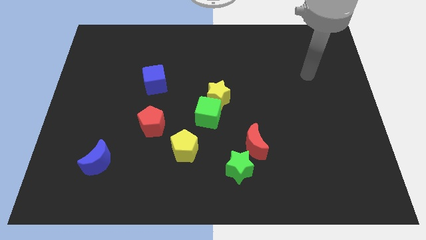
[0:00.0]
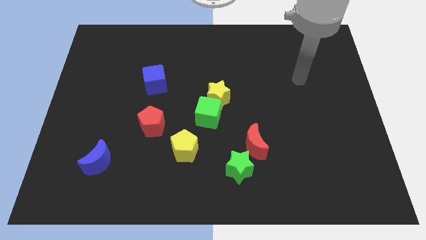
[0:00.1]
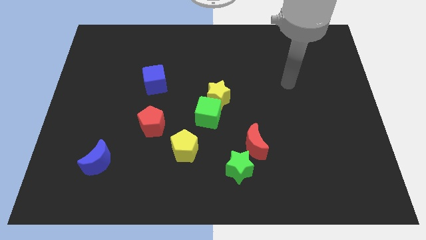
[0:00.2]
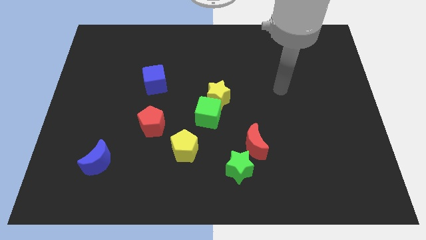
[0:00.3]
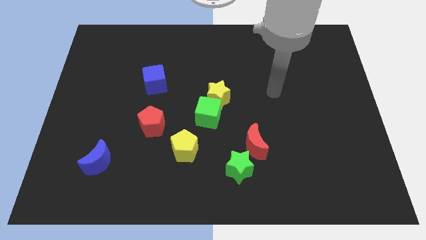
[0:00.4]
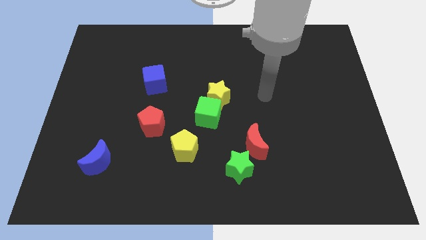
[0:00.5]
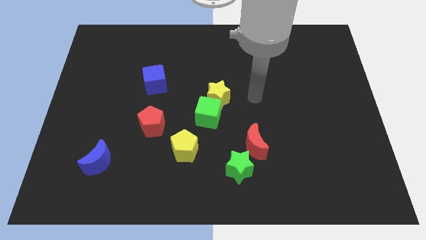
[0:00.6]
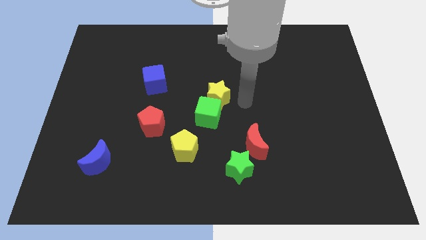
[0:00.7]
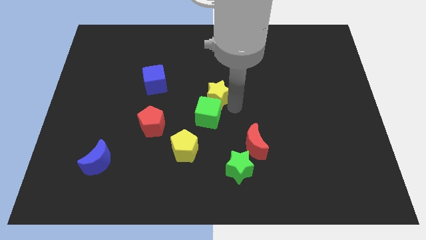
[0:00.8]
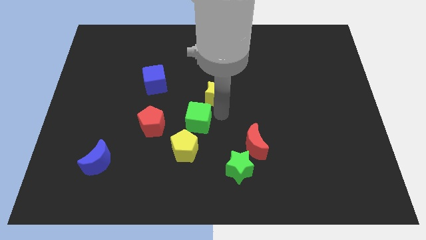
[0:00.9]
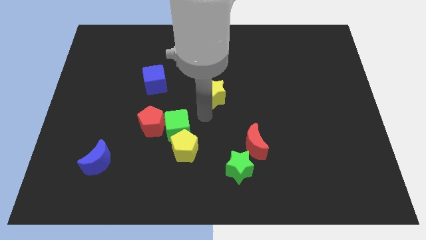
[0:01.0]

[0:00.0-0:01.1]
move the yellow star away from the green cube

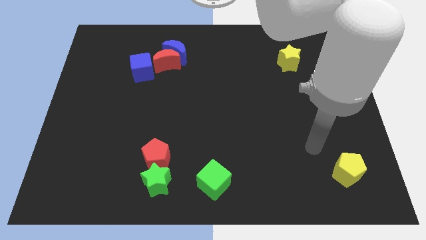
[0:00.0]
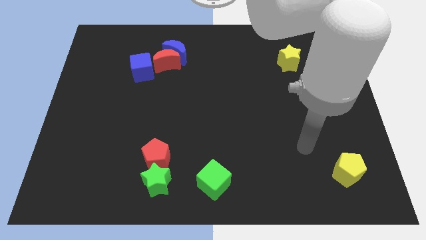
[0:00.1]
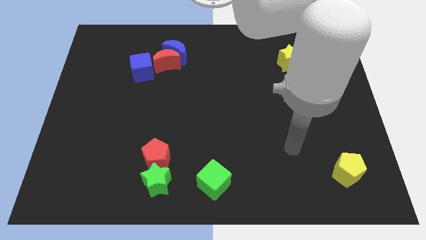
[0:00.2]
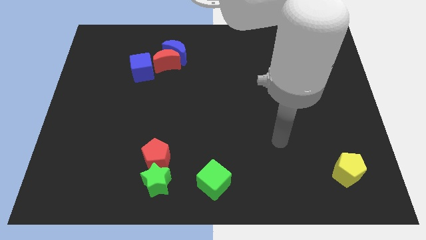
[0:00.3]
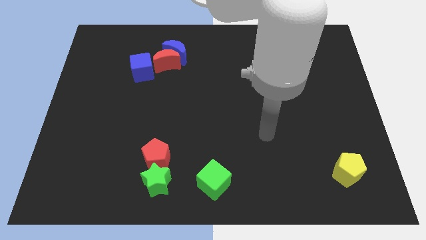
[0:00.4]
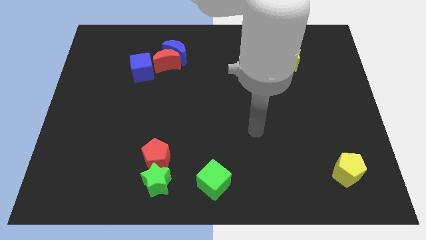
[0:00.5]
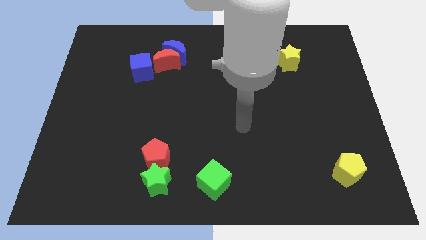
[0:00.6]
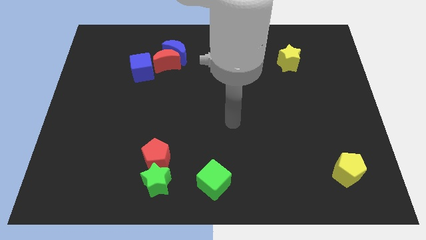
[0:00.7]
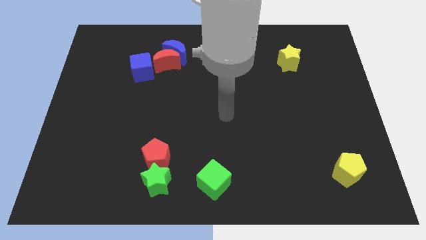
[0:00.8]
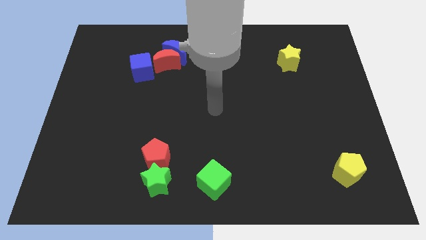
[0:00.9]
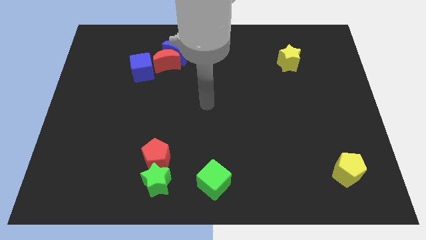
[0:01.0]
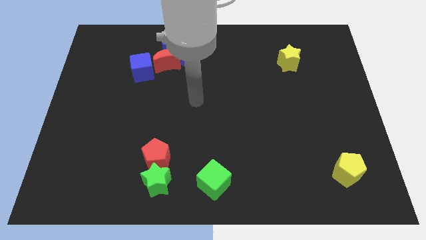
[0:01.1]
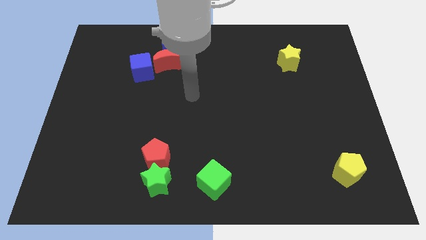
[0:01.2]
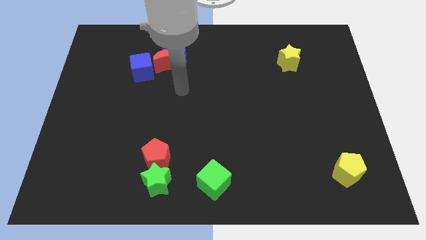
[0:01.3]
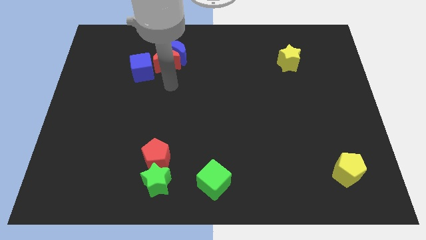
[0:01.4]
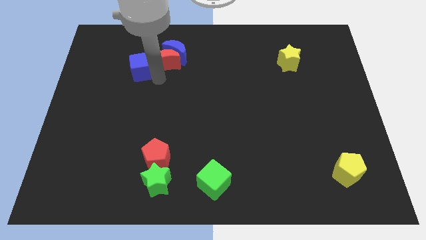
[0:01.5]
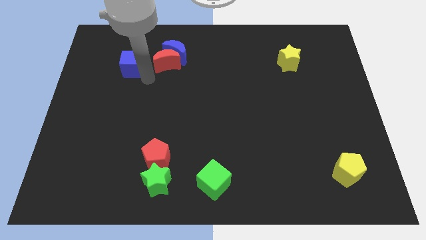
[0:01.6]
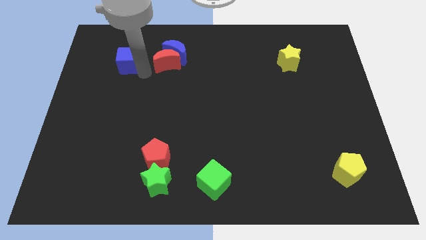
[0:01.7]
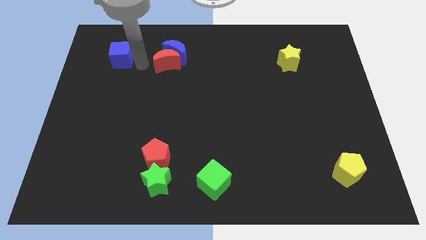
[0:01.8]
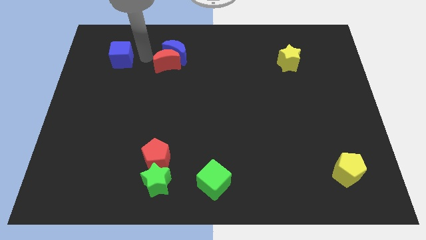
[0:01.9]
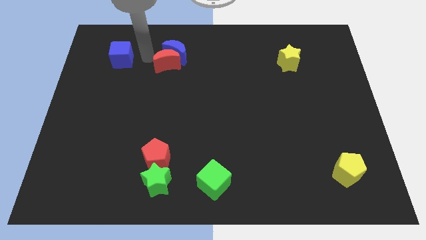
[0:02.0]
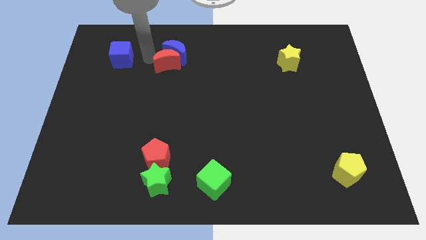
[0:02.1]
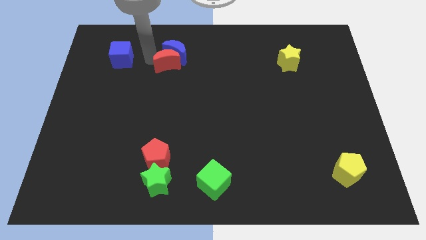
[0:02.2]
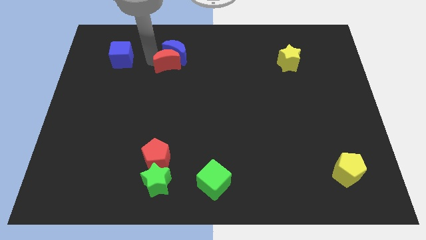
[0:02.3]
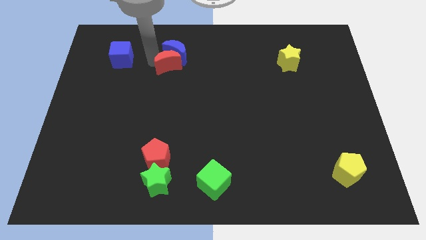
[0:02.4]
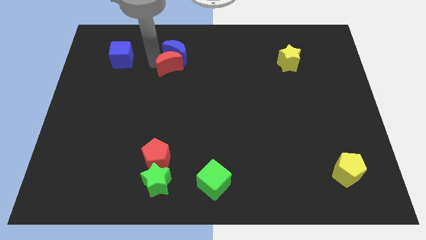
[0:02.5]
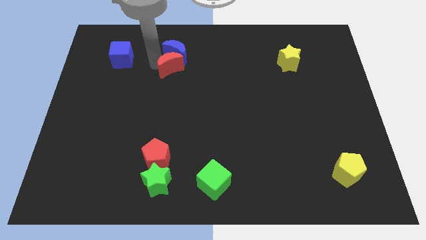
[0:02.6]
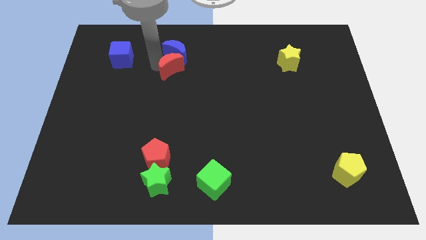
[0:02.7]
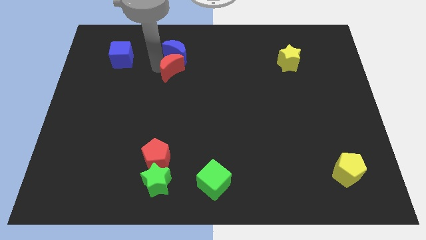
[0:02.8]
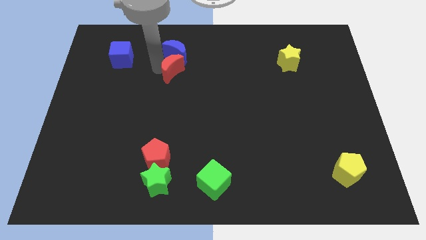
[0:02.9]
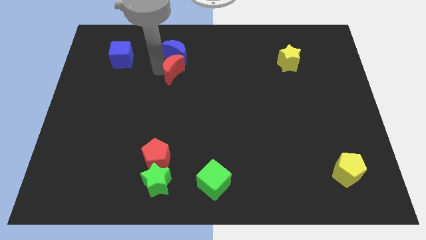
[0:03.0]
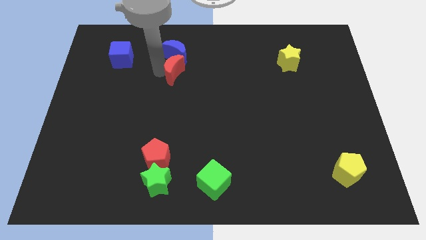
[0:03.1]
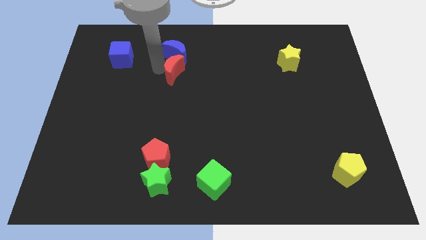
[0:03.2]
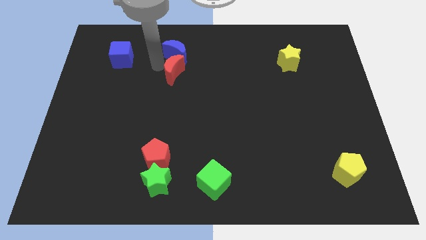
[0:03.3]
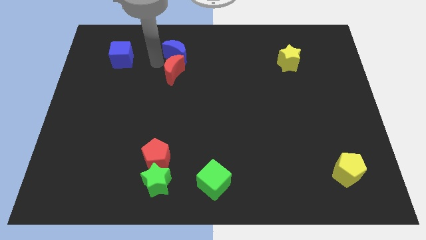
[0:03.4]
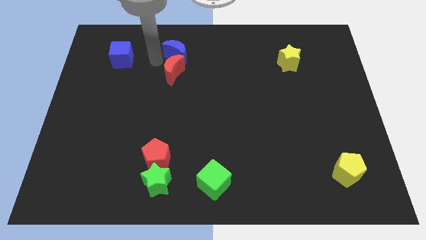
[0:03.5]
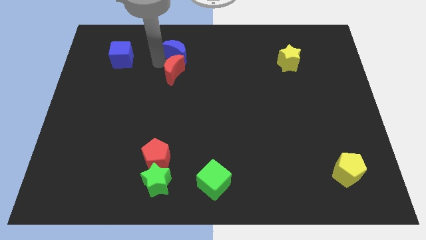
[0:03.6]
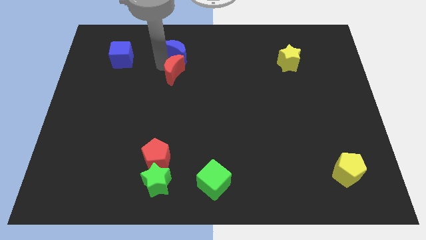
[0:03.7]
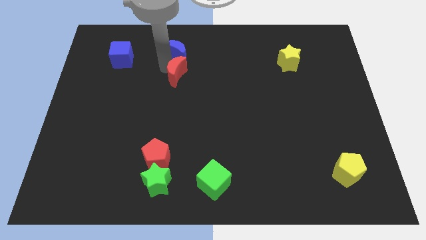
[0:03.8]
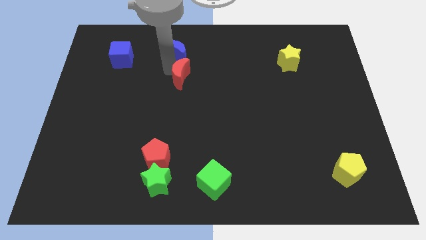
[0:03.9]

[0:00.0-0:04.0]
separate the red moon from the blue moon and blue cube

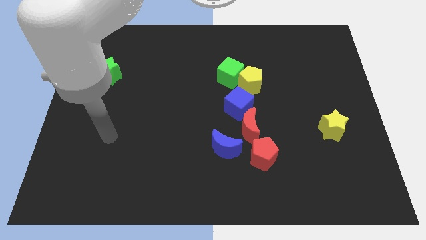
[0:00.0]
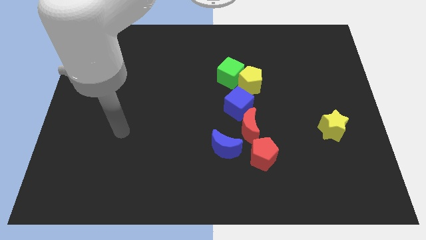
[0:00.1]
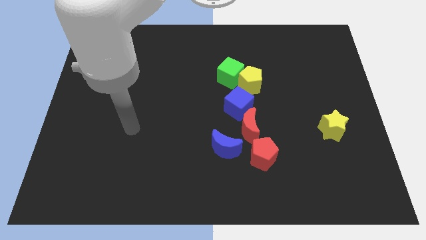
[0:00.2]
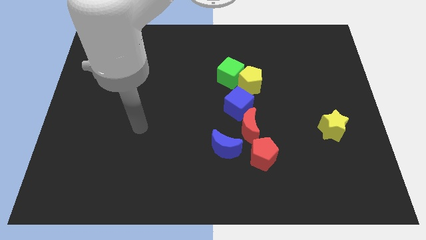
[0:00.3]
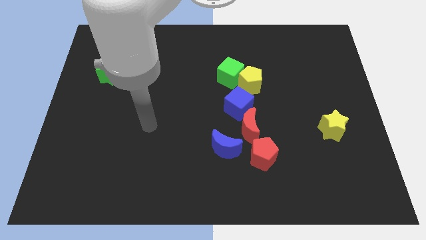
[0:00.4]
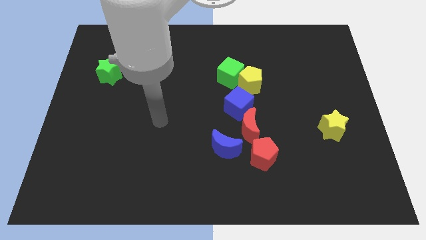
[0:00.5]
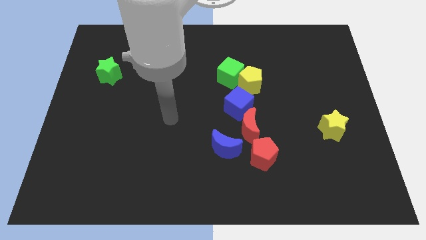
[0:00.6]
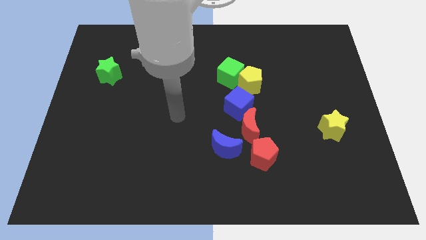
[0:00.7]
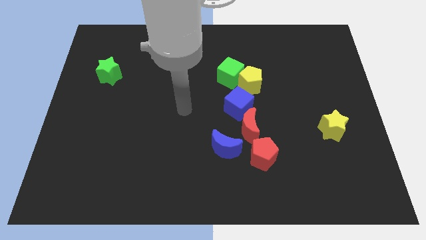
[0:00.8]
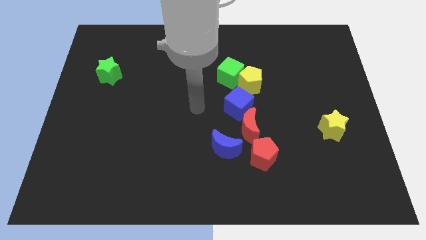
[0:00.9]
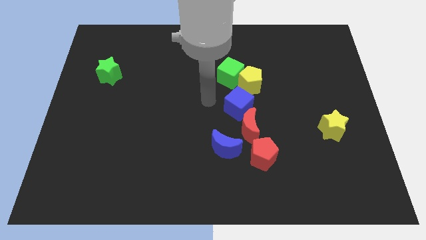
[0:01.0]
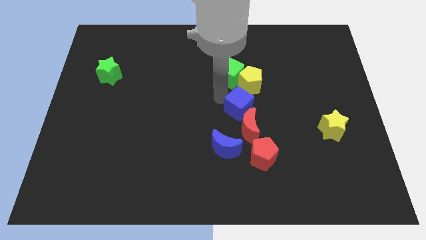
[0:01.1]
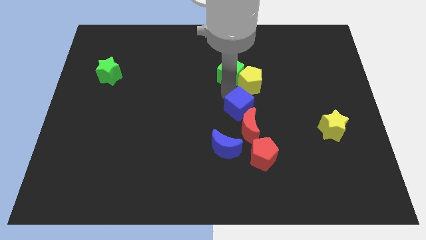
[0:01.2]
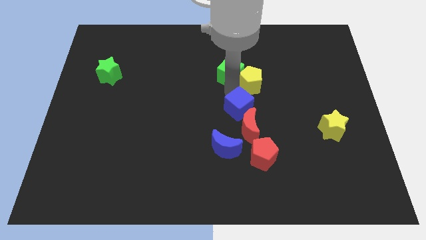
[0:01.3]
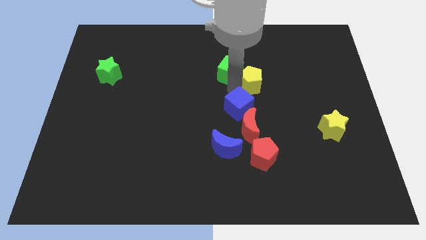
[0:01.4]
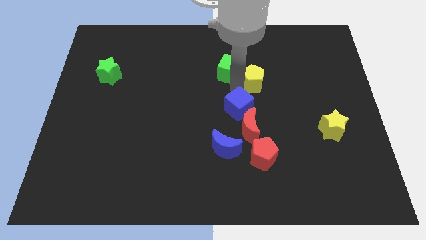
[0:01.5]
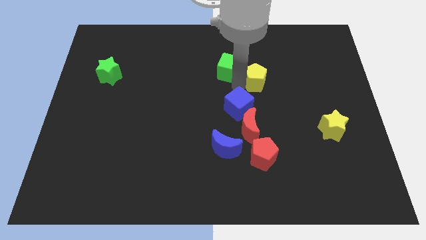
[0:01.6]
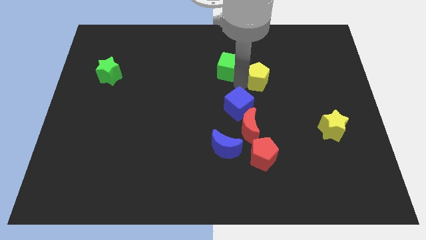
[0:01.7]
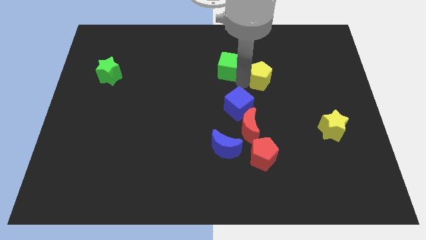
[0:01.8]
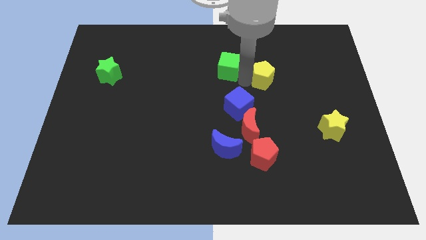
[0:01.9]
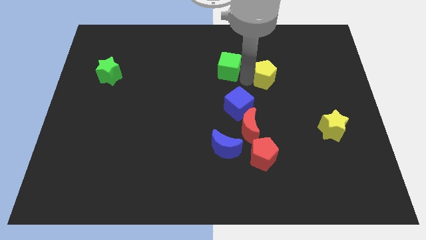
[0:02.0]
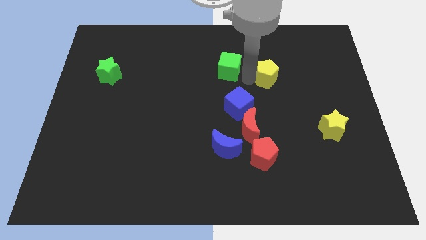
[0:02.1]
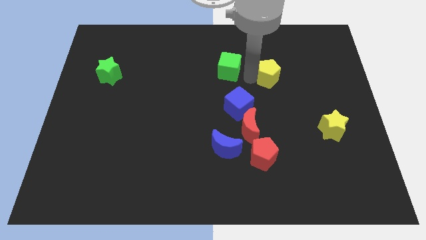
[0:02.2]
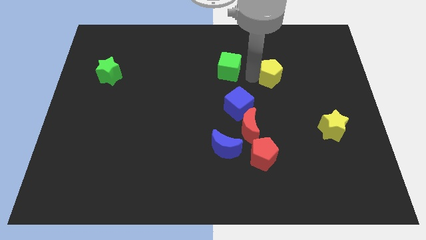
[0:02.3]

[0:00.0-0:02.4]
separate the yellow pentagon from the green cube and blue cube

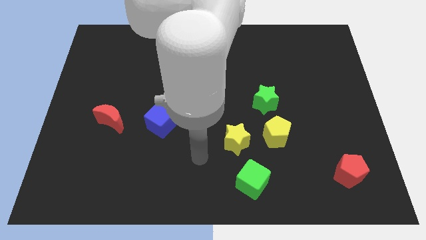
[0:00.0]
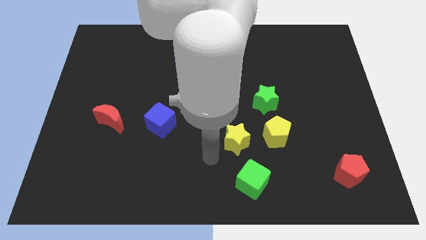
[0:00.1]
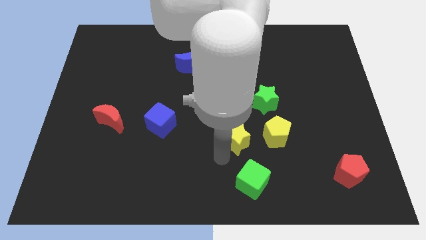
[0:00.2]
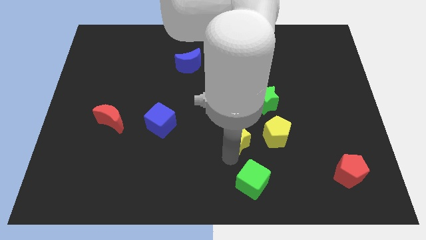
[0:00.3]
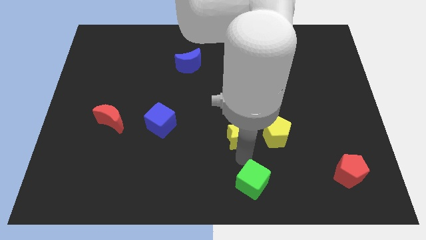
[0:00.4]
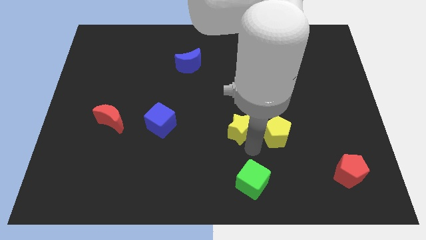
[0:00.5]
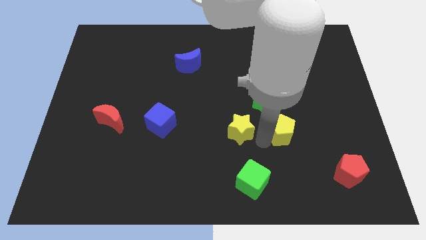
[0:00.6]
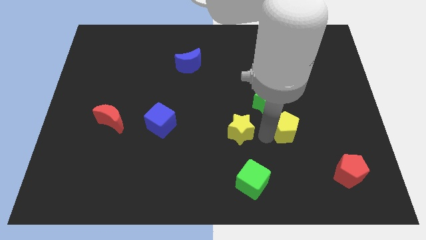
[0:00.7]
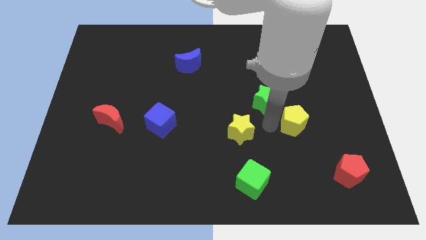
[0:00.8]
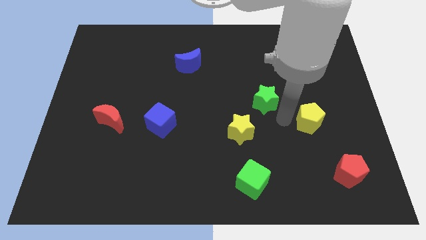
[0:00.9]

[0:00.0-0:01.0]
move the green star away from the yellow pentagon

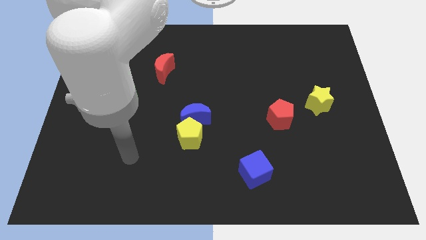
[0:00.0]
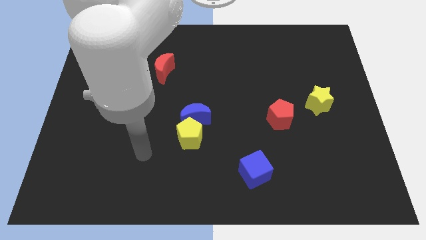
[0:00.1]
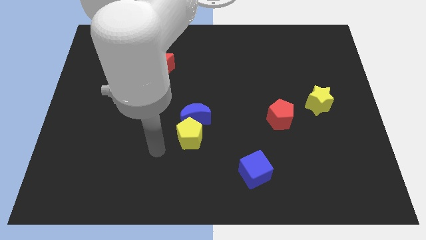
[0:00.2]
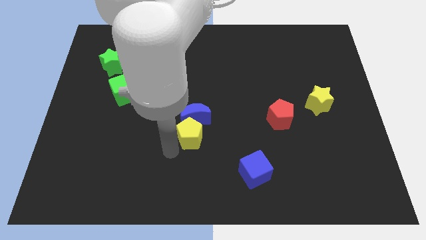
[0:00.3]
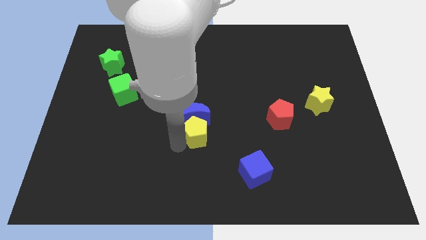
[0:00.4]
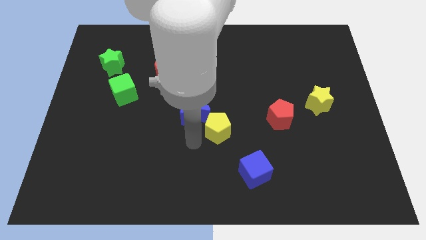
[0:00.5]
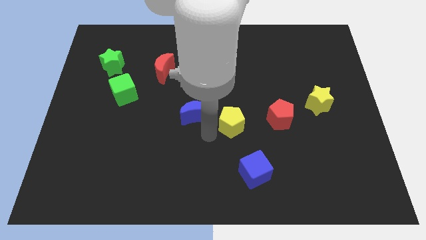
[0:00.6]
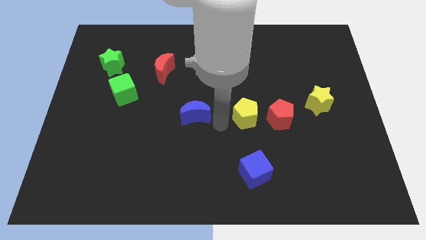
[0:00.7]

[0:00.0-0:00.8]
separate the blue moon from the yellow pentagon

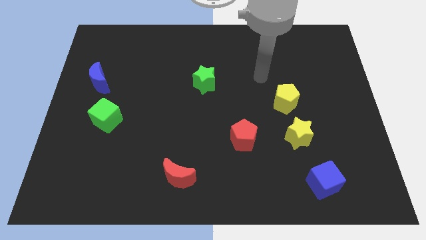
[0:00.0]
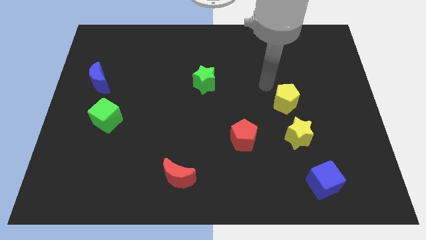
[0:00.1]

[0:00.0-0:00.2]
separate the yellow star from the yellow pentagon
